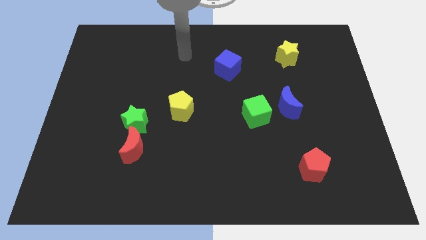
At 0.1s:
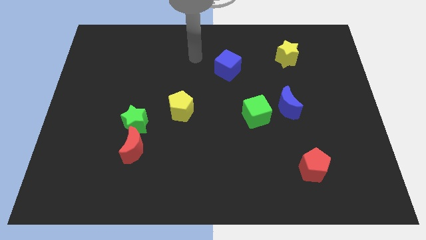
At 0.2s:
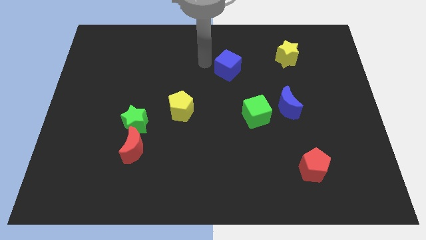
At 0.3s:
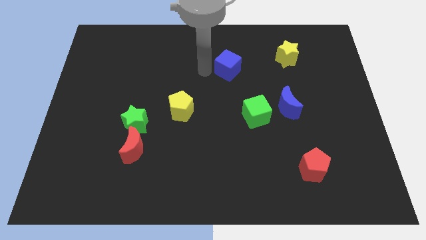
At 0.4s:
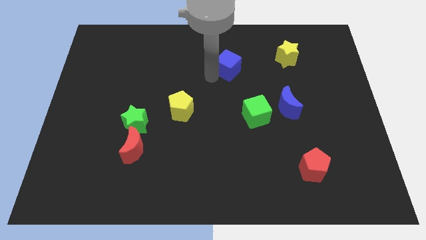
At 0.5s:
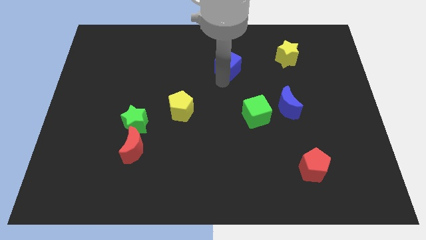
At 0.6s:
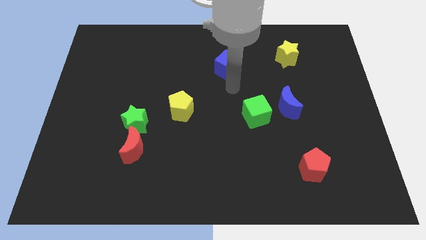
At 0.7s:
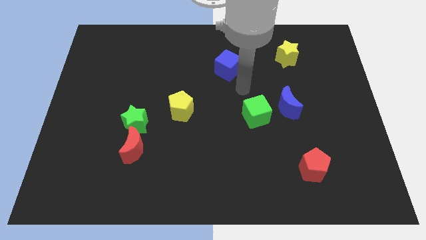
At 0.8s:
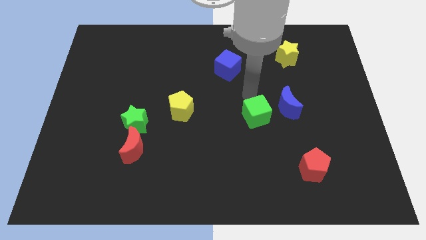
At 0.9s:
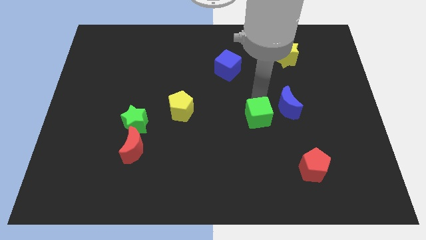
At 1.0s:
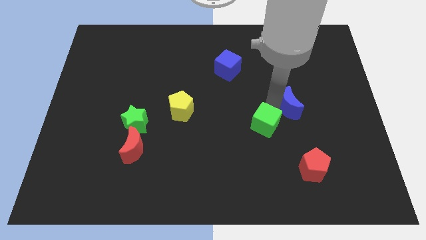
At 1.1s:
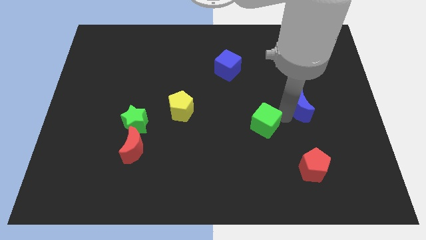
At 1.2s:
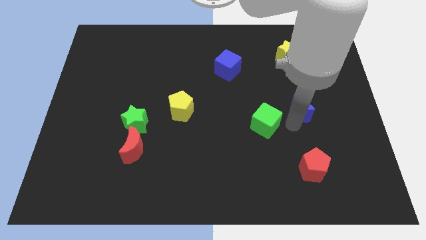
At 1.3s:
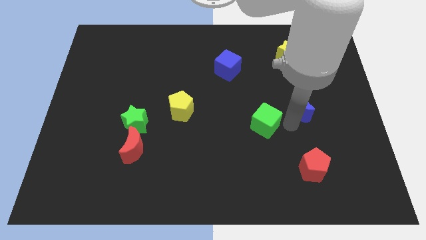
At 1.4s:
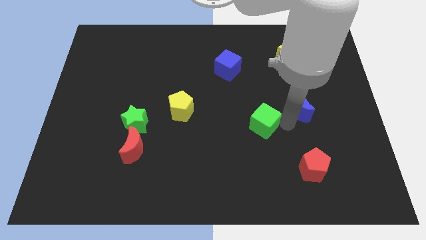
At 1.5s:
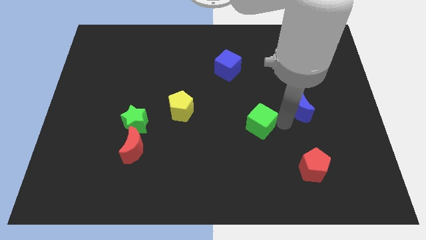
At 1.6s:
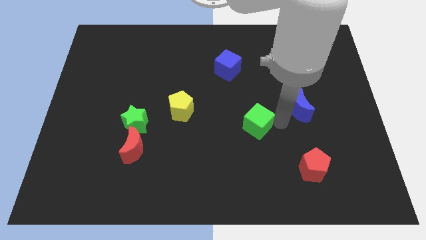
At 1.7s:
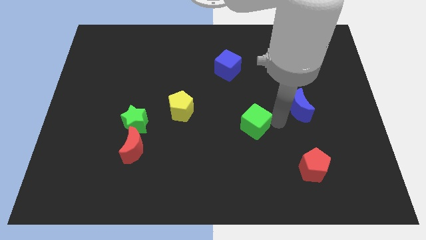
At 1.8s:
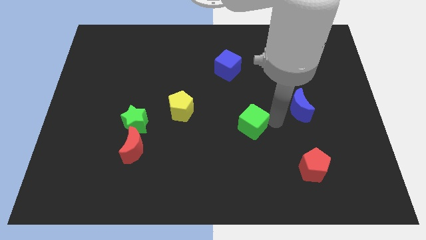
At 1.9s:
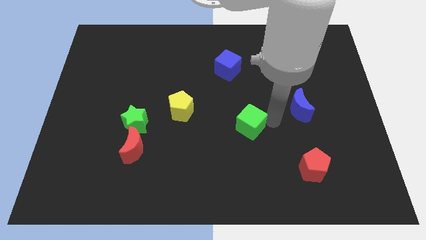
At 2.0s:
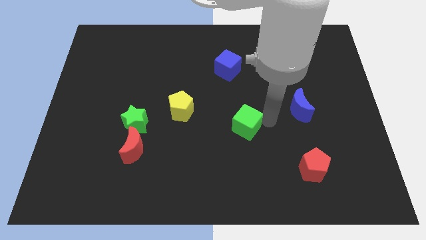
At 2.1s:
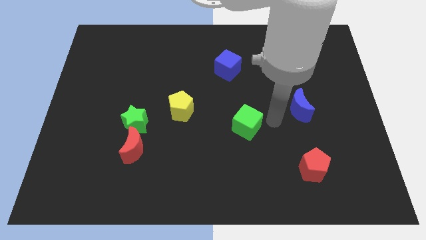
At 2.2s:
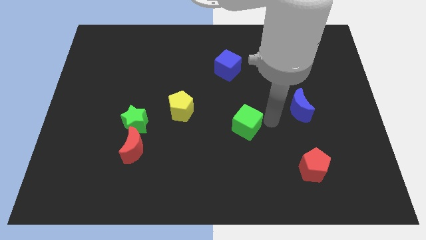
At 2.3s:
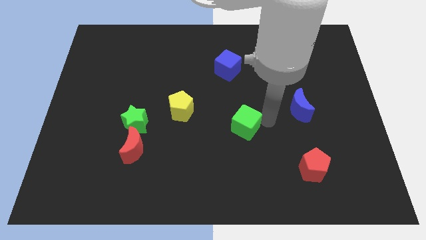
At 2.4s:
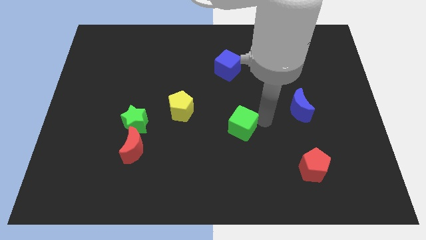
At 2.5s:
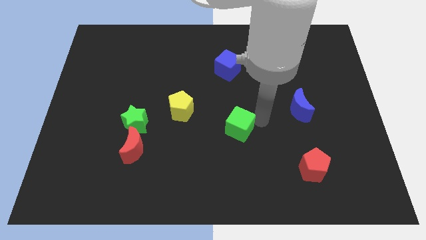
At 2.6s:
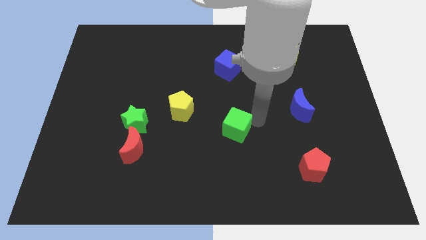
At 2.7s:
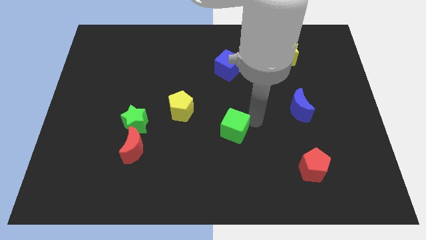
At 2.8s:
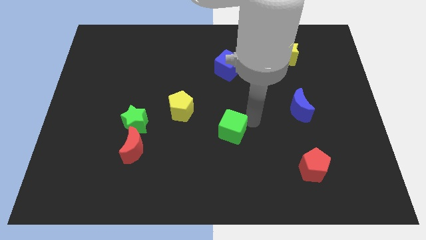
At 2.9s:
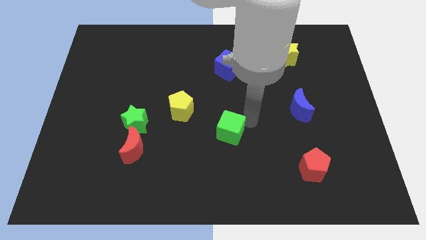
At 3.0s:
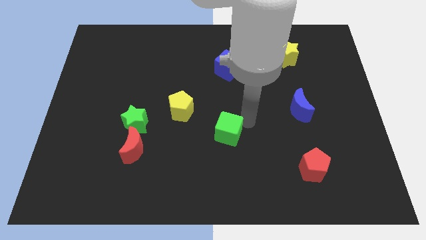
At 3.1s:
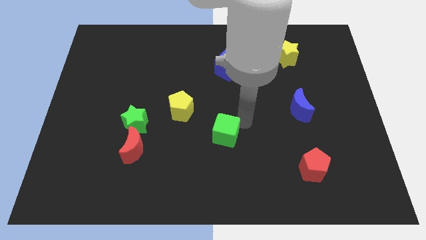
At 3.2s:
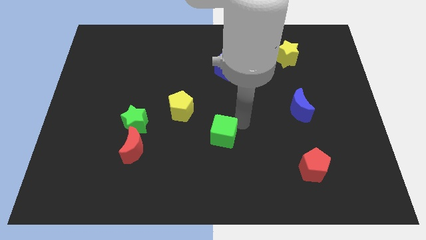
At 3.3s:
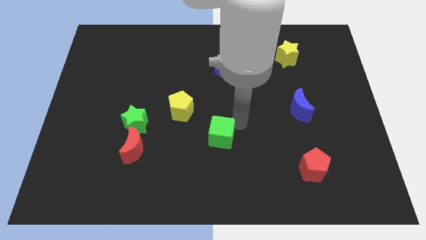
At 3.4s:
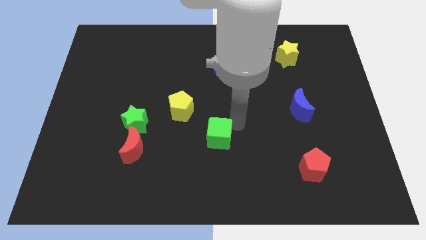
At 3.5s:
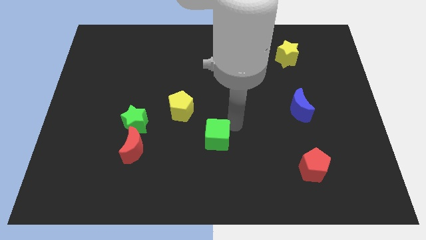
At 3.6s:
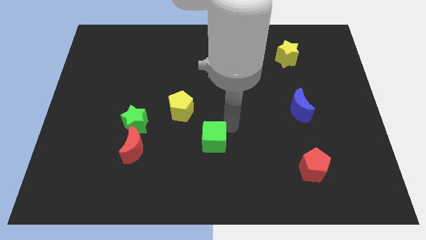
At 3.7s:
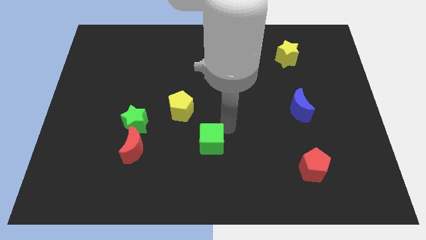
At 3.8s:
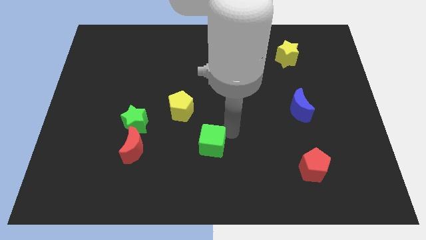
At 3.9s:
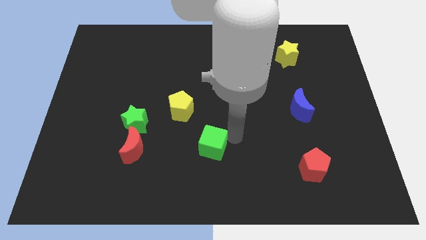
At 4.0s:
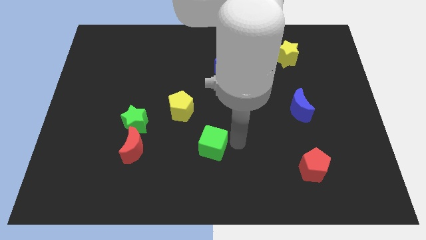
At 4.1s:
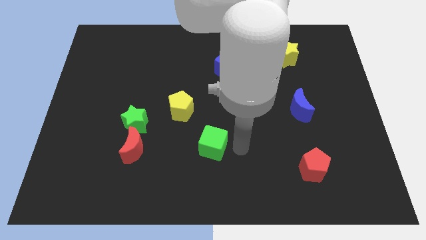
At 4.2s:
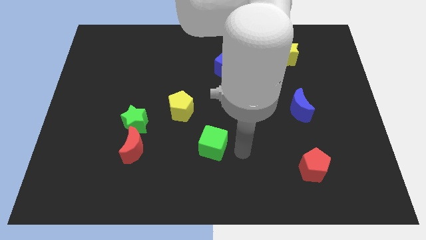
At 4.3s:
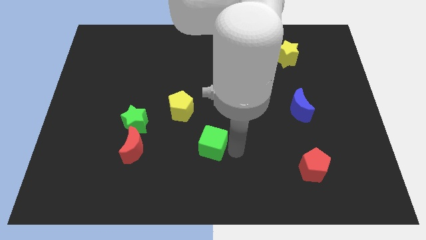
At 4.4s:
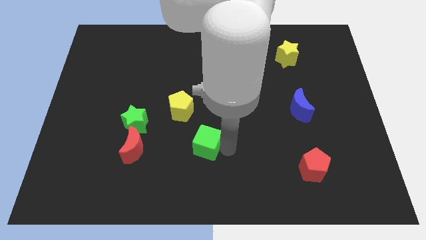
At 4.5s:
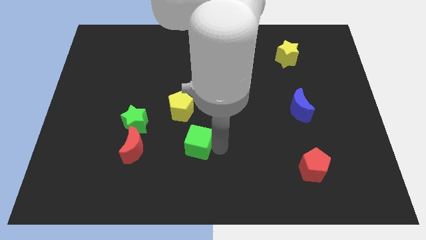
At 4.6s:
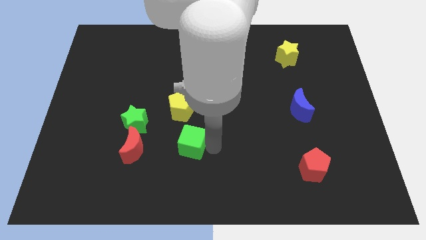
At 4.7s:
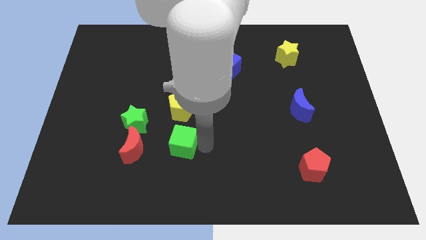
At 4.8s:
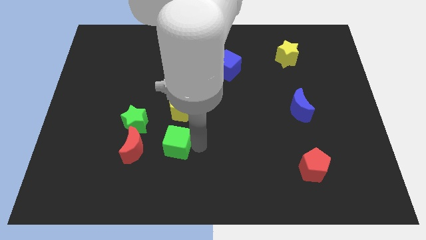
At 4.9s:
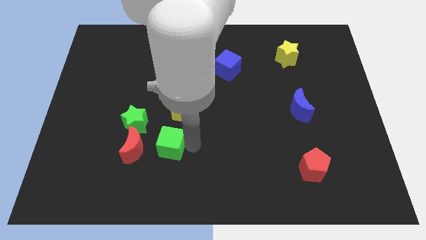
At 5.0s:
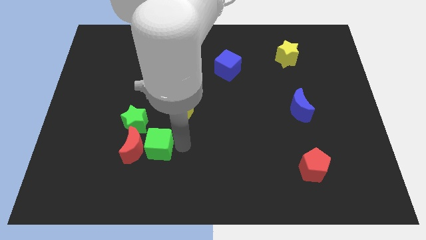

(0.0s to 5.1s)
move the green cube close to the red moon

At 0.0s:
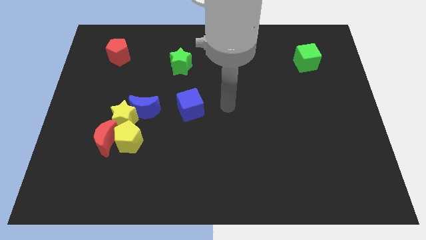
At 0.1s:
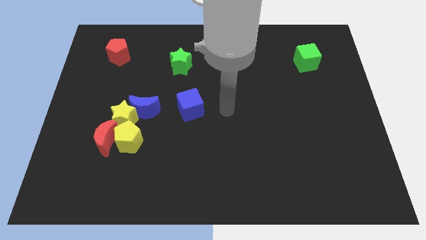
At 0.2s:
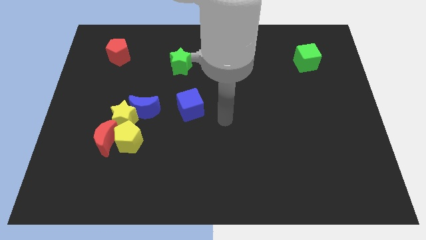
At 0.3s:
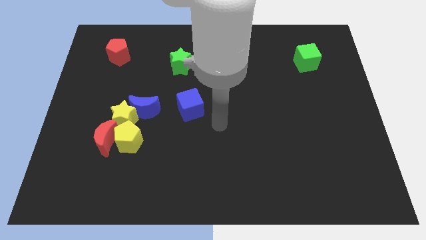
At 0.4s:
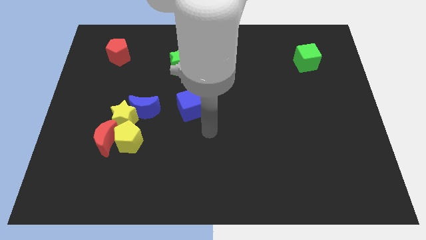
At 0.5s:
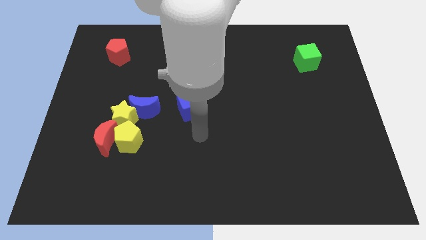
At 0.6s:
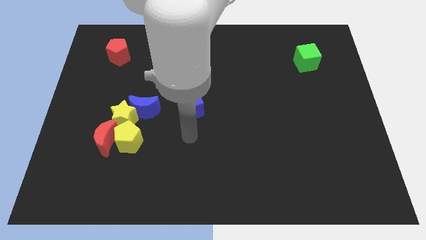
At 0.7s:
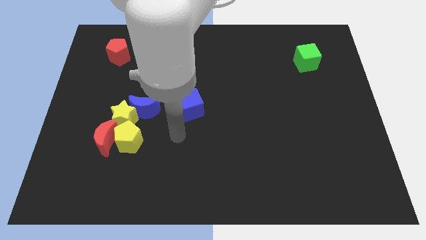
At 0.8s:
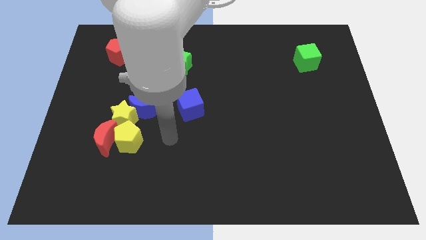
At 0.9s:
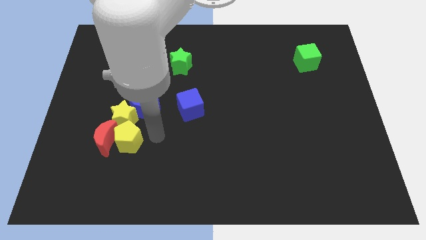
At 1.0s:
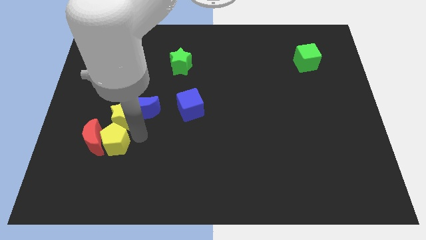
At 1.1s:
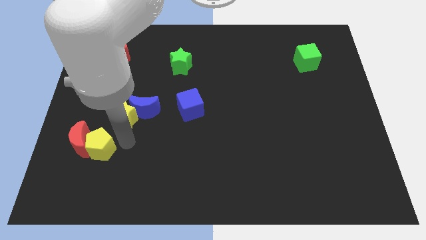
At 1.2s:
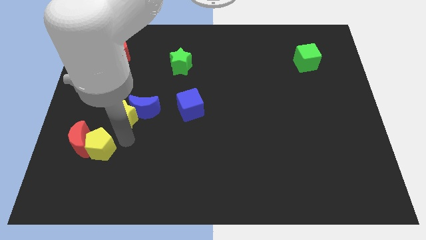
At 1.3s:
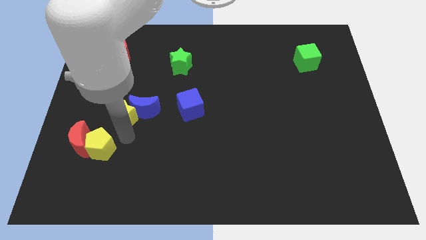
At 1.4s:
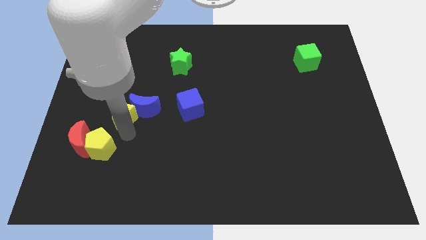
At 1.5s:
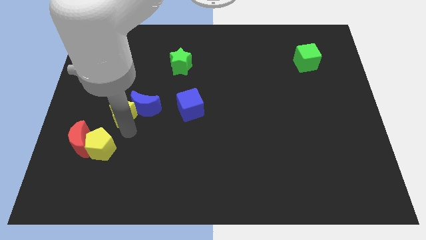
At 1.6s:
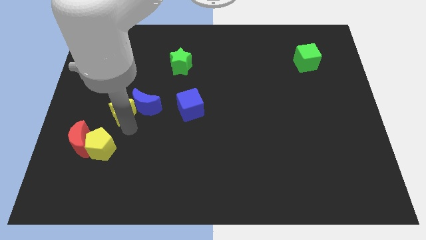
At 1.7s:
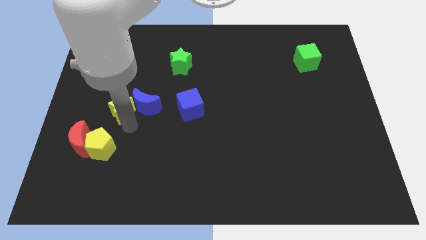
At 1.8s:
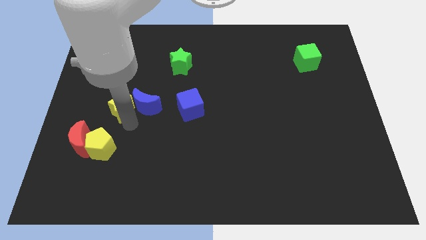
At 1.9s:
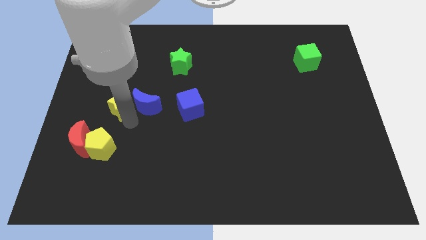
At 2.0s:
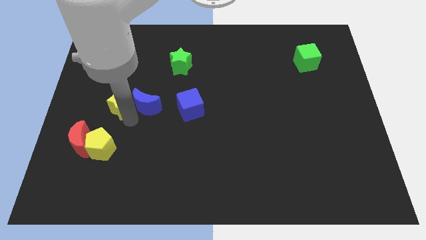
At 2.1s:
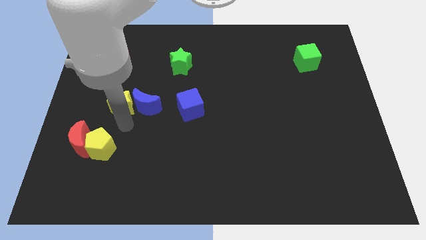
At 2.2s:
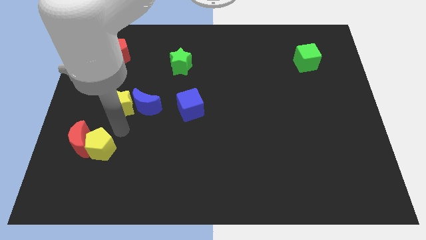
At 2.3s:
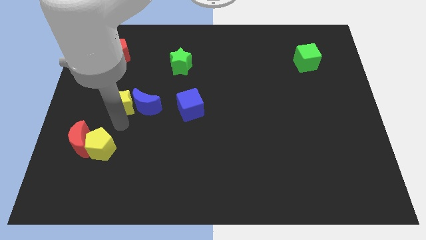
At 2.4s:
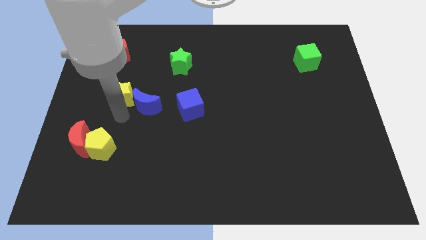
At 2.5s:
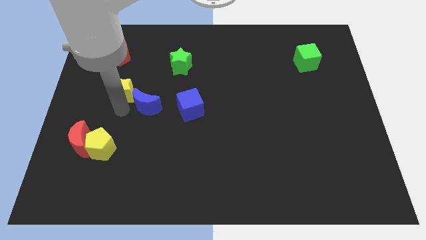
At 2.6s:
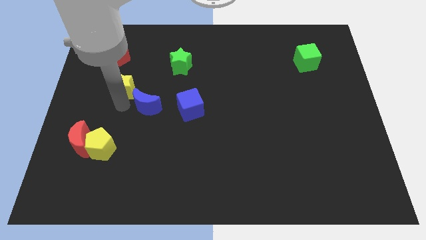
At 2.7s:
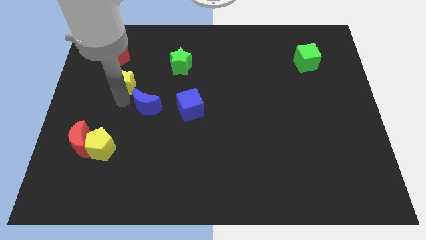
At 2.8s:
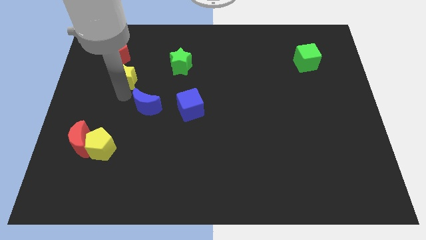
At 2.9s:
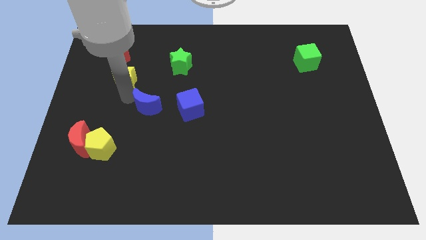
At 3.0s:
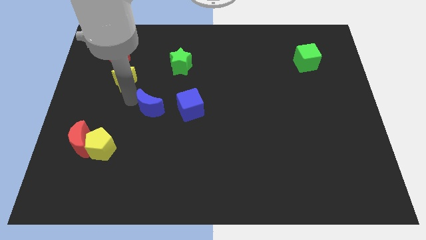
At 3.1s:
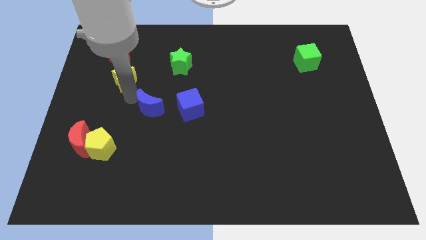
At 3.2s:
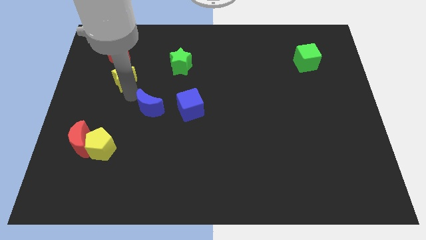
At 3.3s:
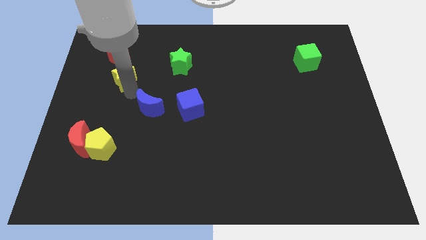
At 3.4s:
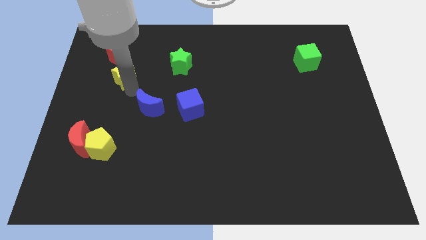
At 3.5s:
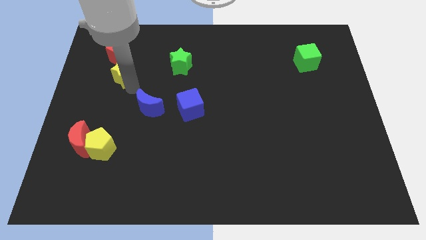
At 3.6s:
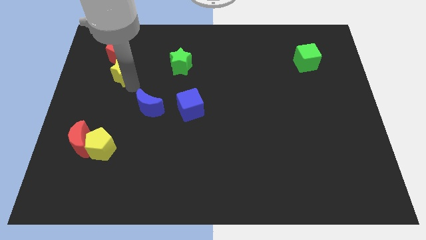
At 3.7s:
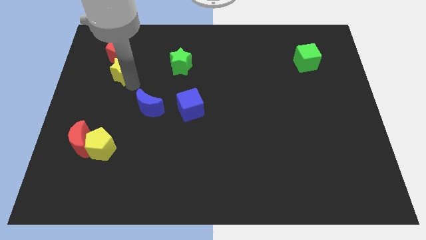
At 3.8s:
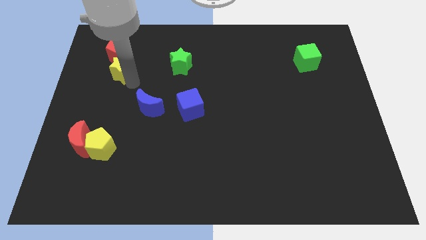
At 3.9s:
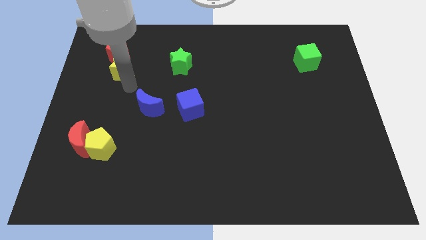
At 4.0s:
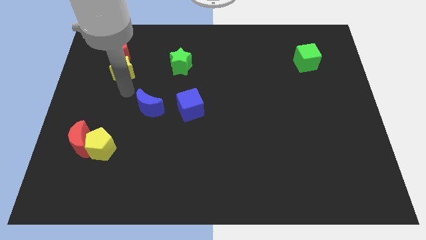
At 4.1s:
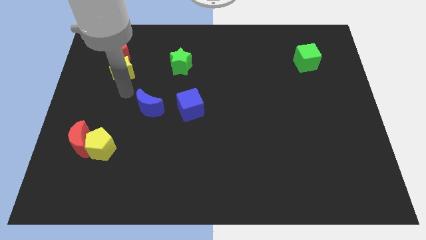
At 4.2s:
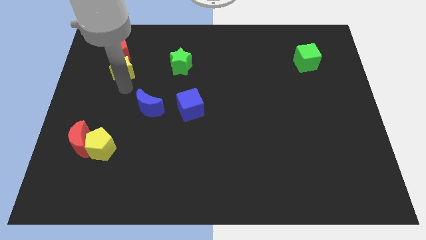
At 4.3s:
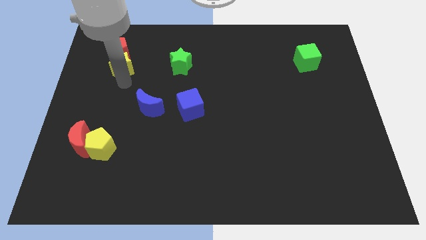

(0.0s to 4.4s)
push the yellow star to the red pentagon
